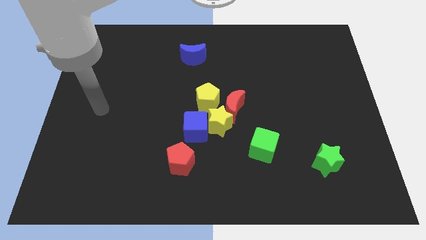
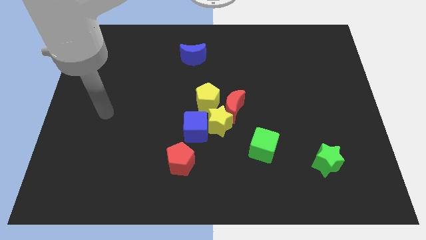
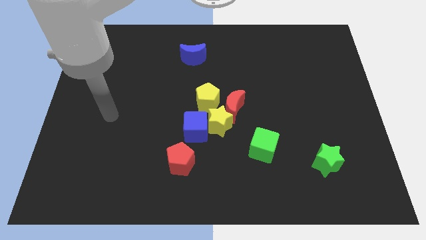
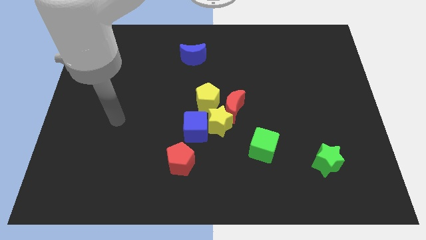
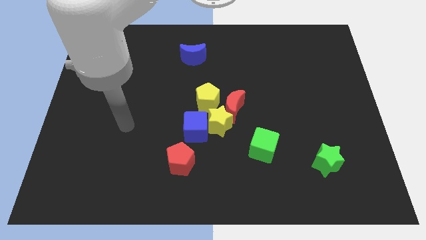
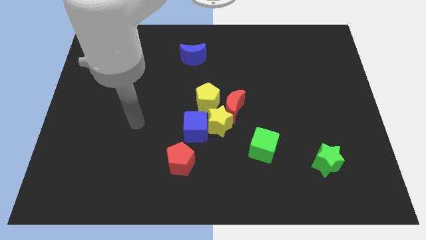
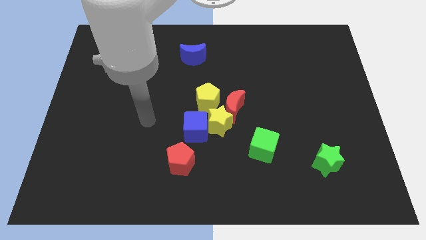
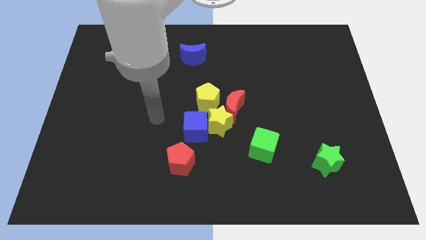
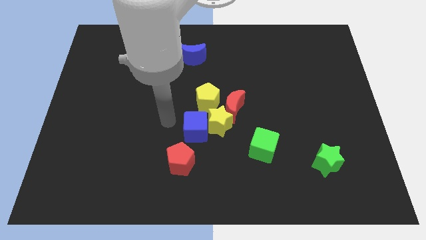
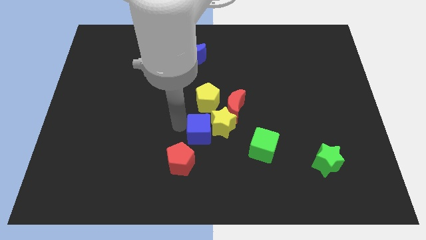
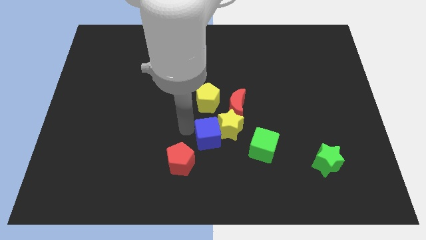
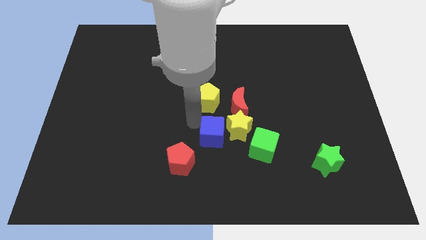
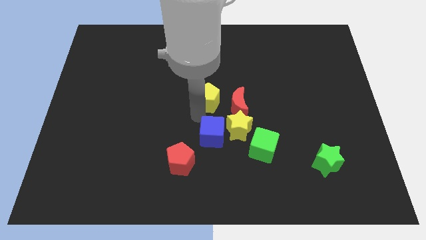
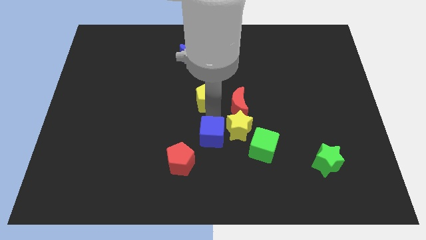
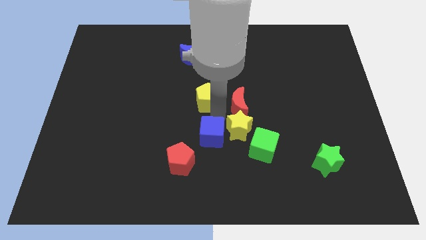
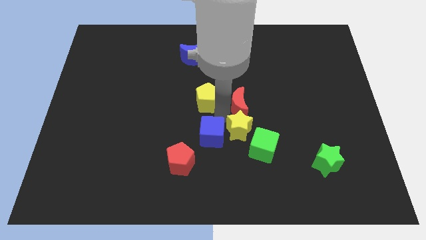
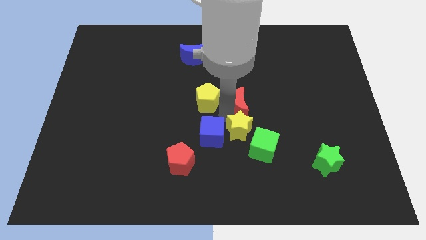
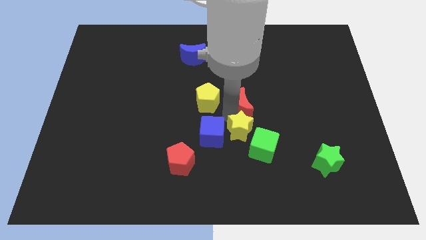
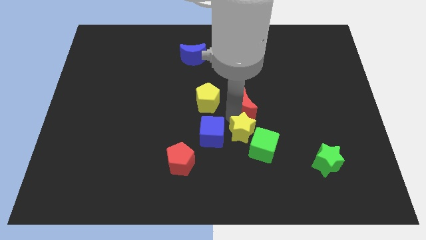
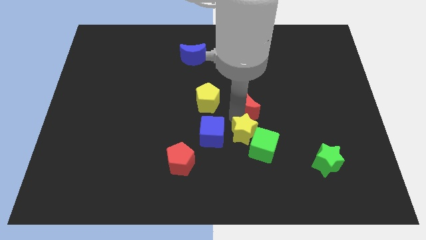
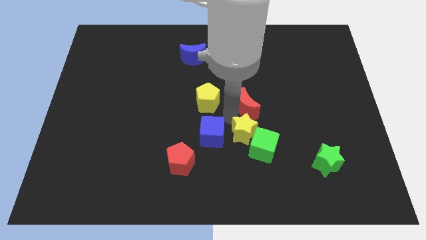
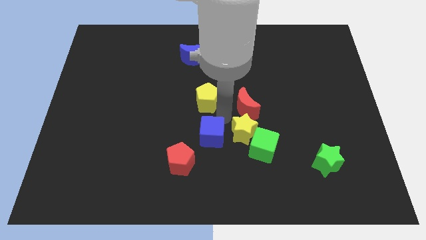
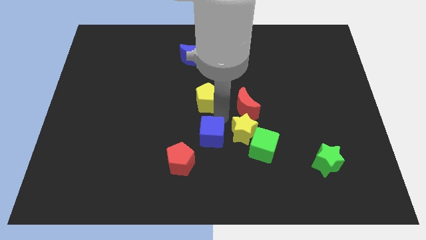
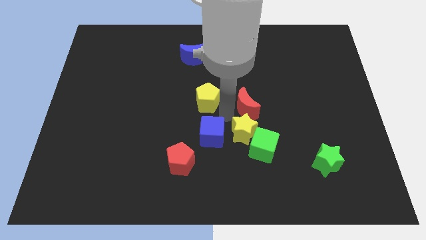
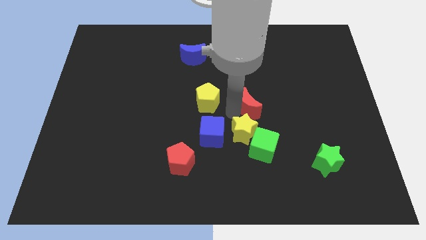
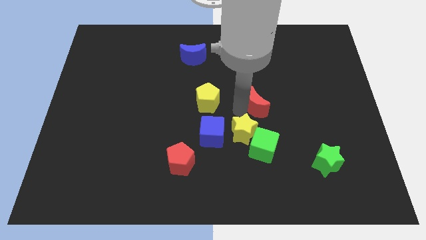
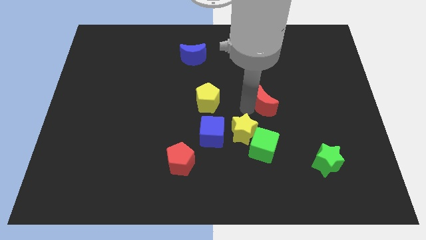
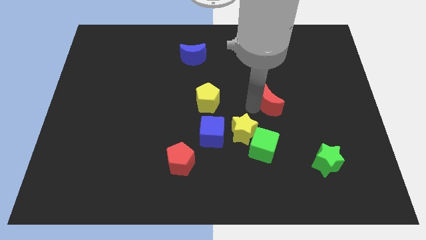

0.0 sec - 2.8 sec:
separate the red moon from the yellow star and yellow pentagon

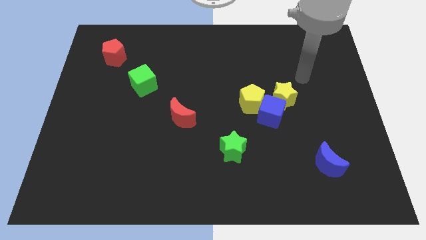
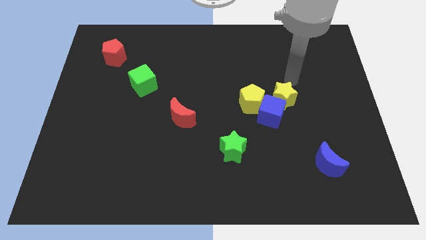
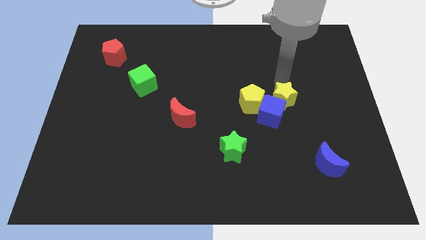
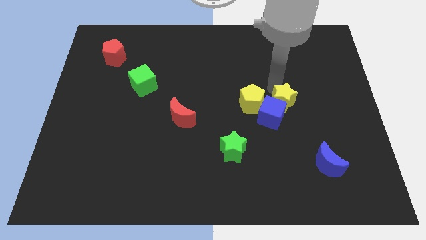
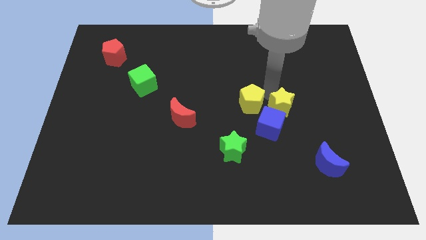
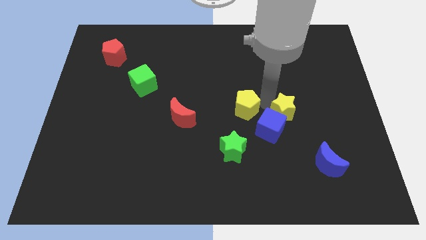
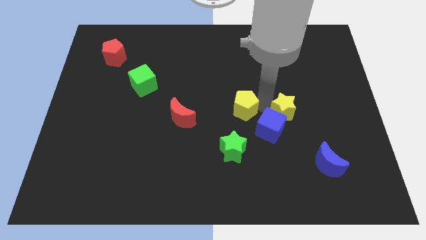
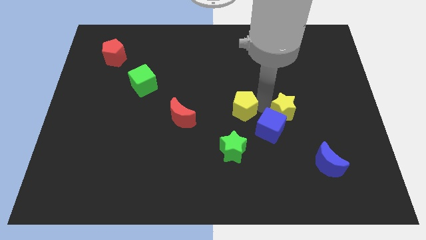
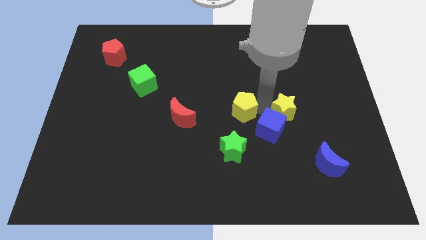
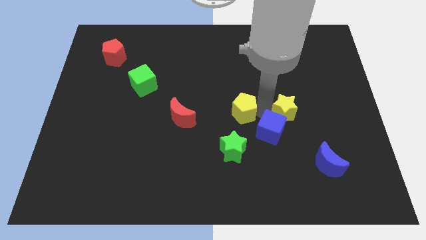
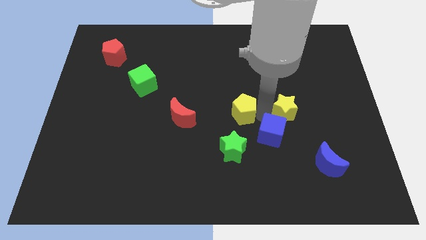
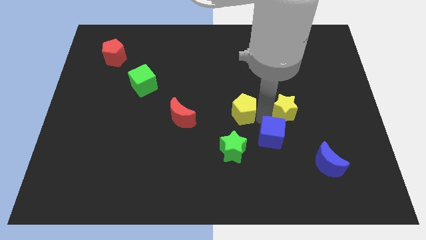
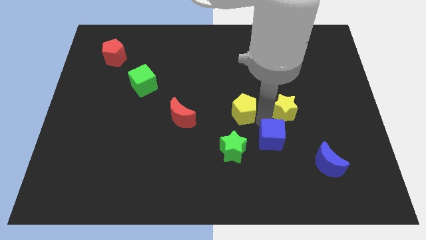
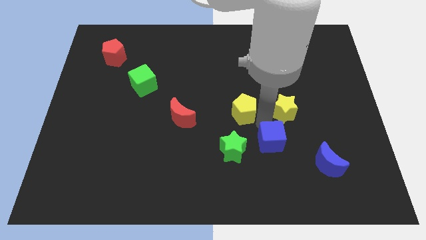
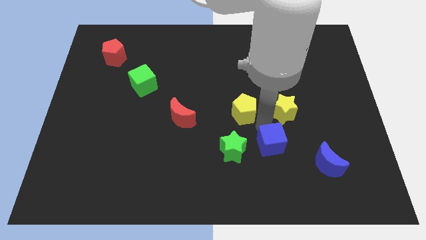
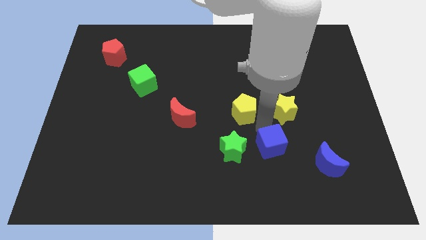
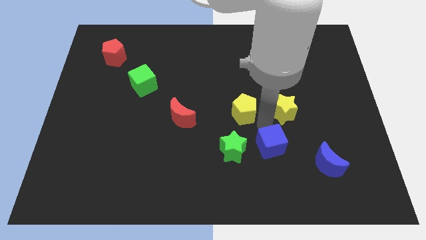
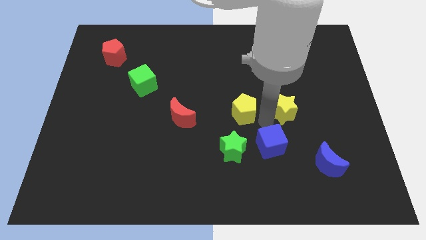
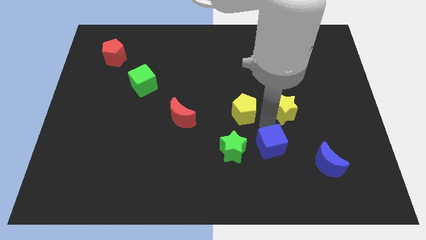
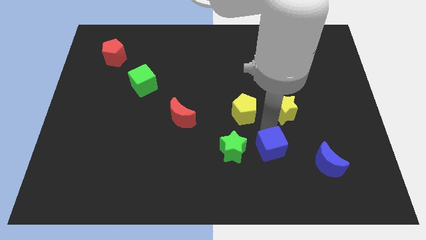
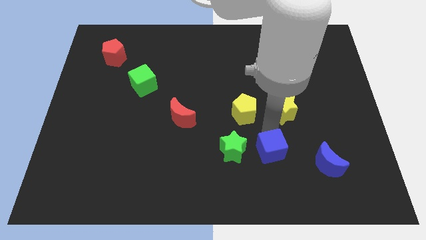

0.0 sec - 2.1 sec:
move the blue cube away from the yellow pentagon and yellow star

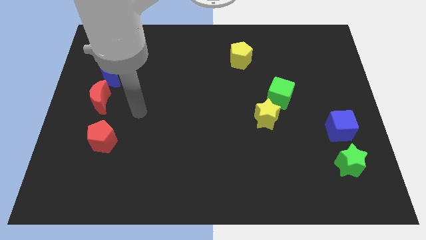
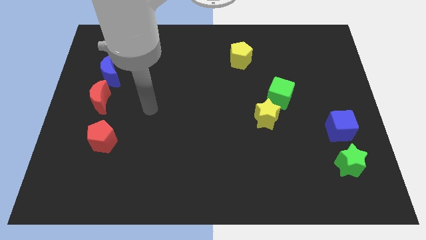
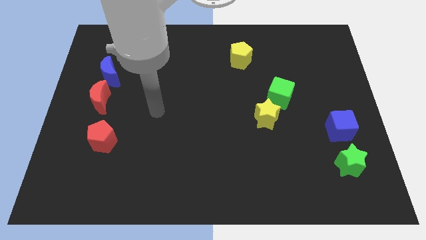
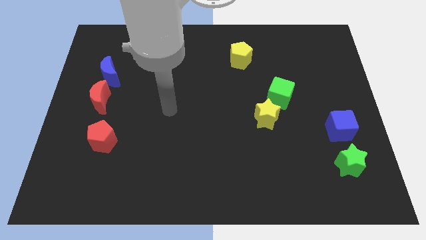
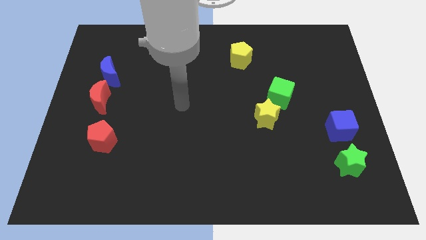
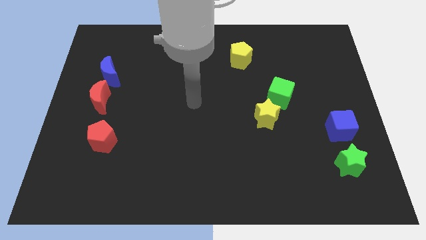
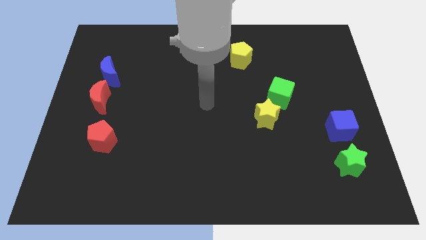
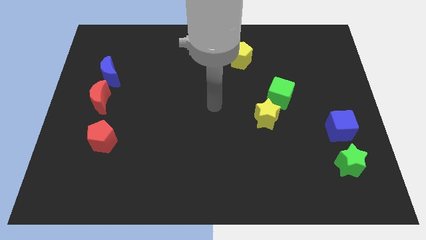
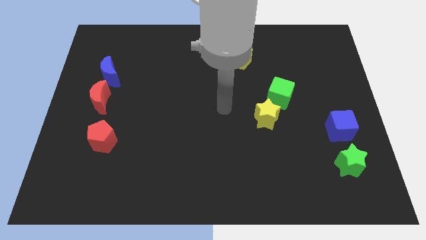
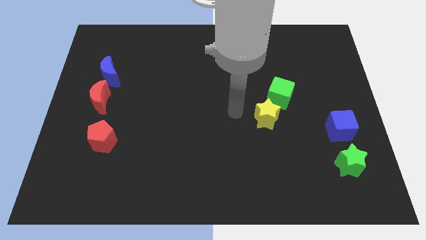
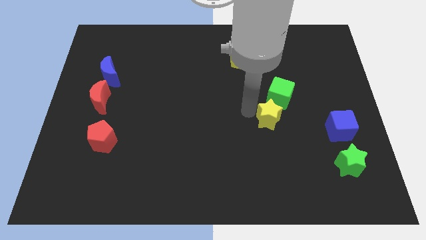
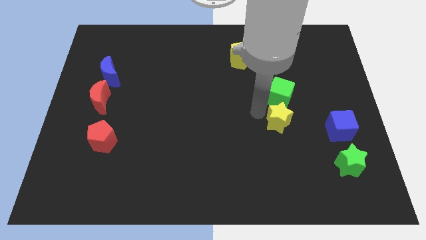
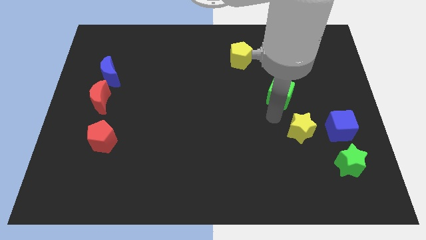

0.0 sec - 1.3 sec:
pull the green cube apart from the yellow star

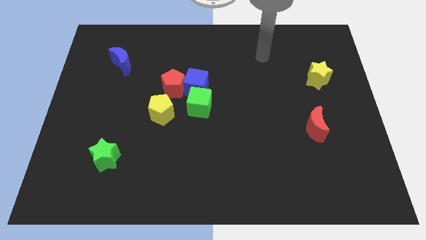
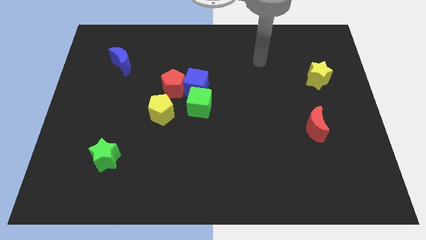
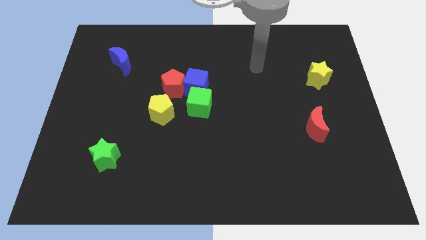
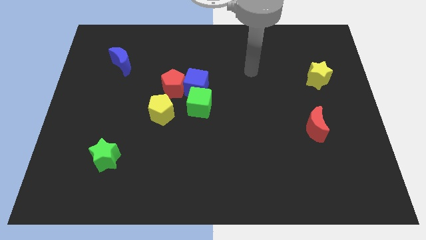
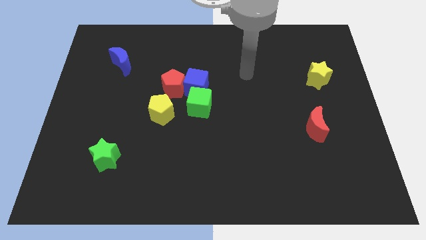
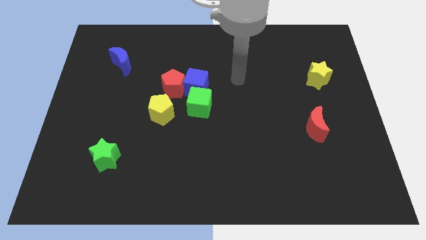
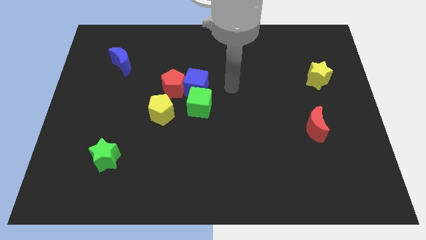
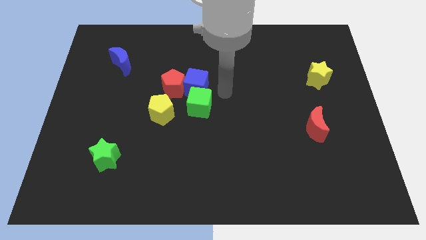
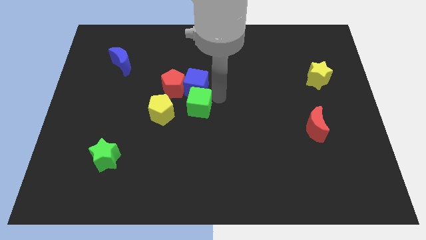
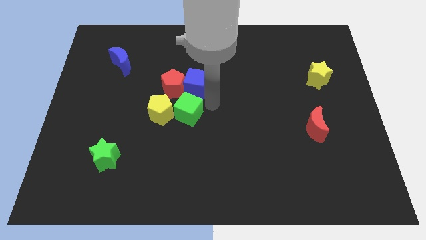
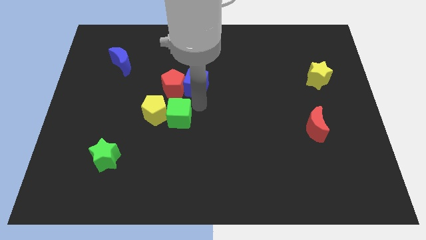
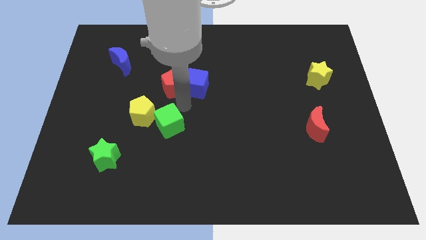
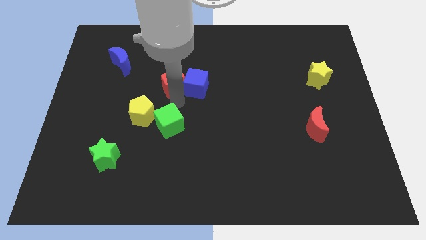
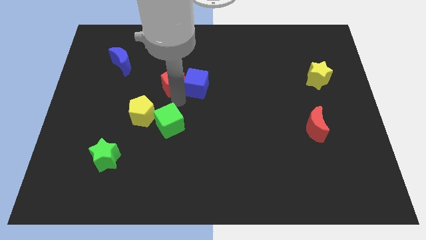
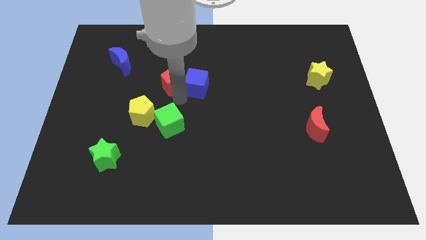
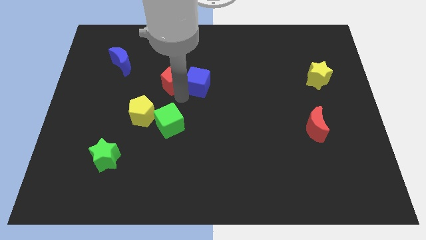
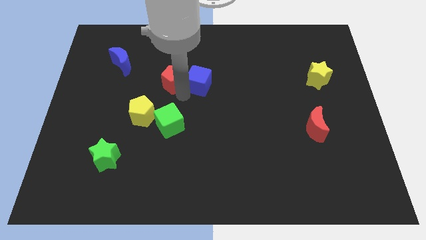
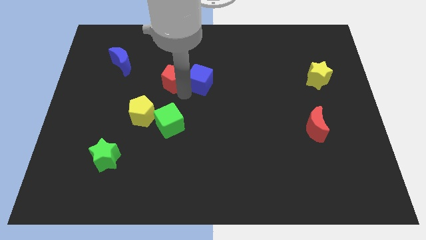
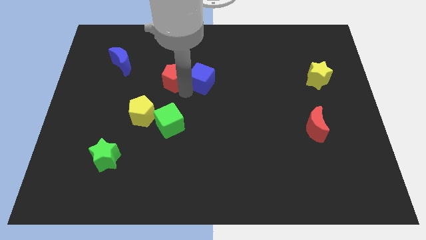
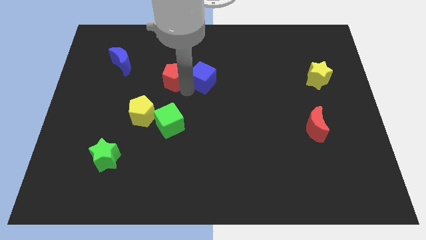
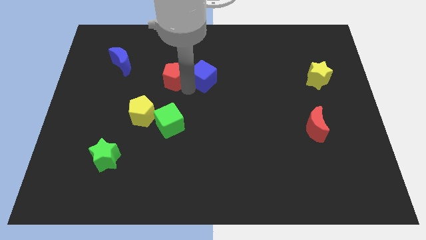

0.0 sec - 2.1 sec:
separate the blue cube from the red pentagon and green cube

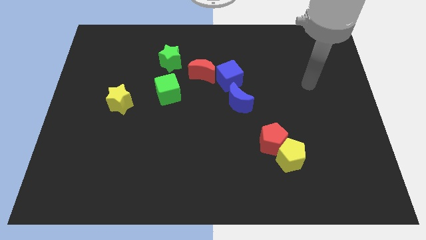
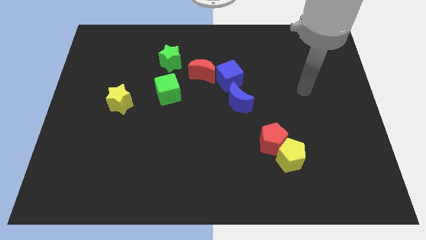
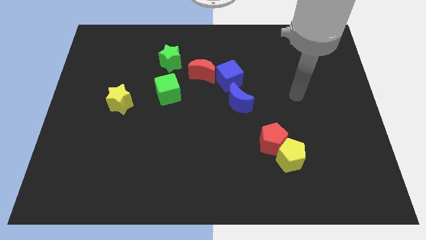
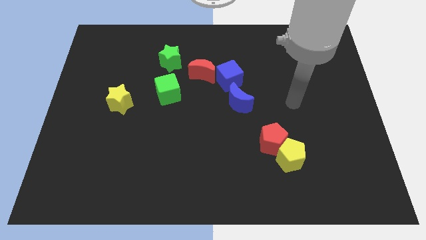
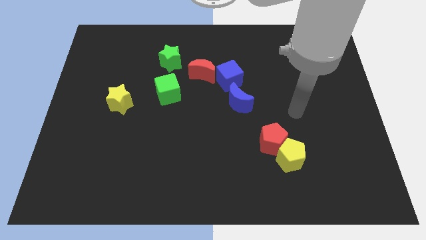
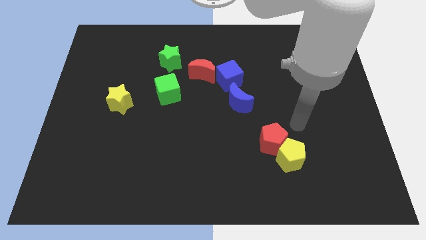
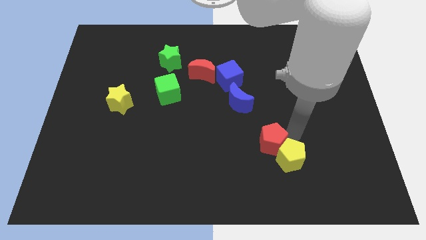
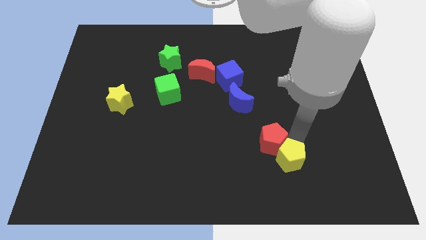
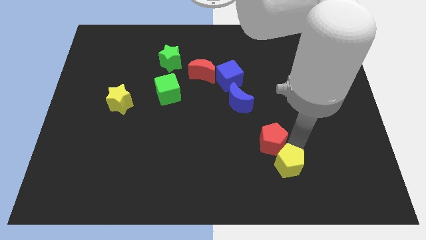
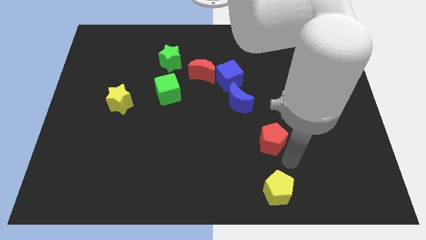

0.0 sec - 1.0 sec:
pull the red pentagon apart from the yellow pentagon
